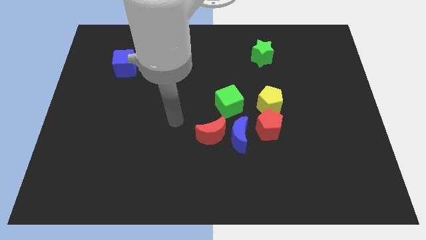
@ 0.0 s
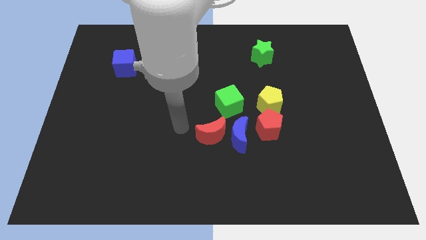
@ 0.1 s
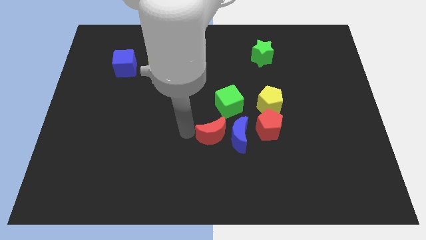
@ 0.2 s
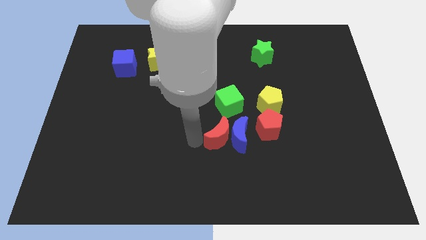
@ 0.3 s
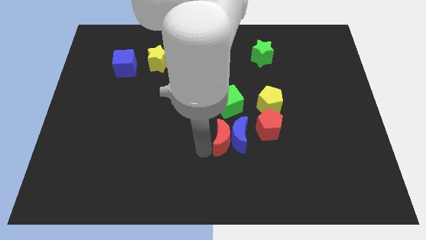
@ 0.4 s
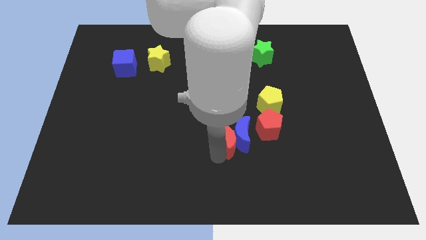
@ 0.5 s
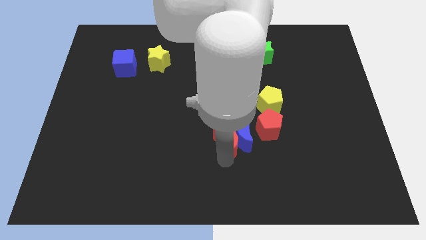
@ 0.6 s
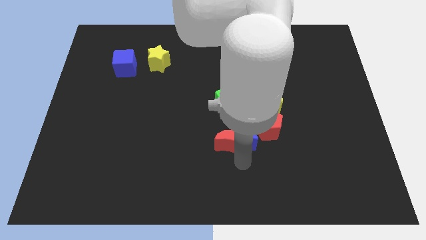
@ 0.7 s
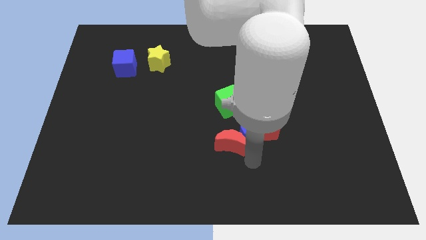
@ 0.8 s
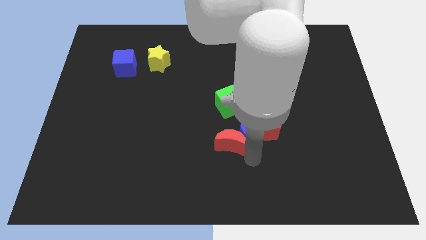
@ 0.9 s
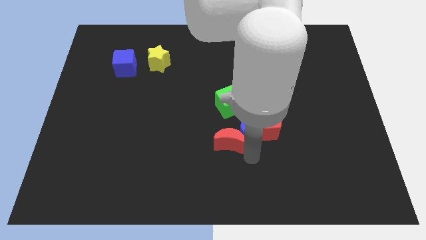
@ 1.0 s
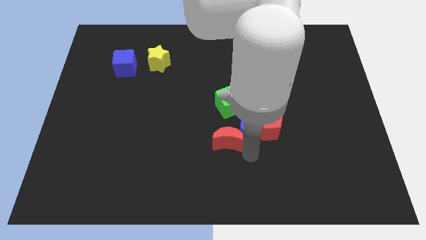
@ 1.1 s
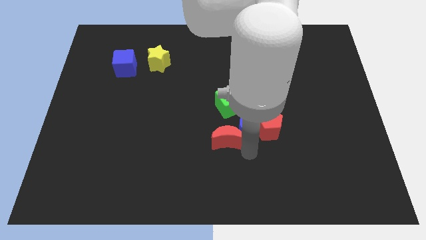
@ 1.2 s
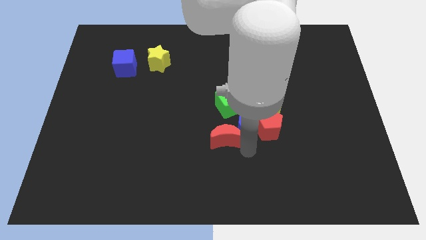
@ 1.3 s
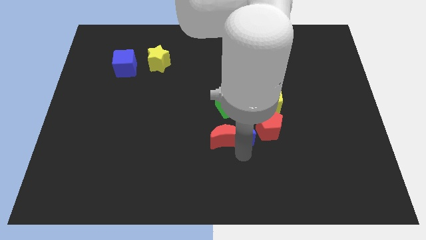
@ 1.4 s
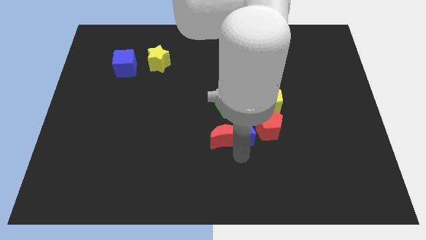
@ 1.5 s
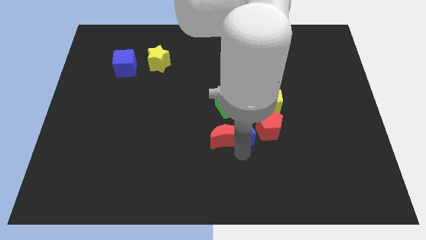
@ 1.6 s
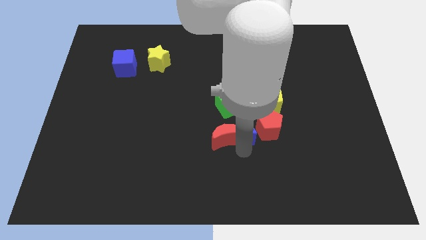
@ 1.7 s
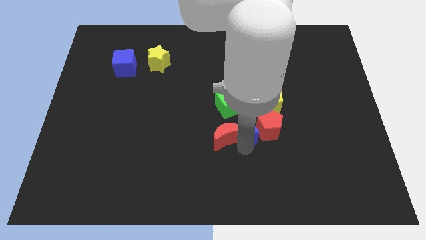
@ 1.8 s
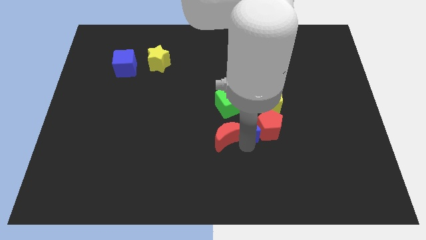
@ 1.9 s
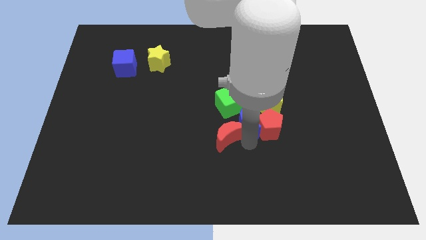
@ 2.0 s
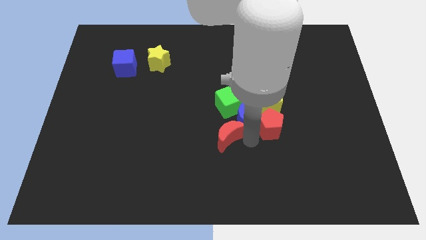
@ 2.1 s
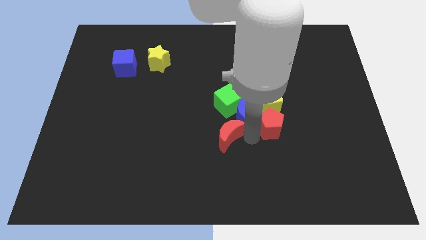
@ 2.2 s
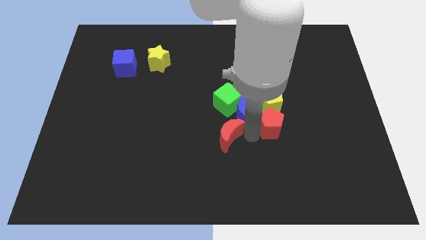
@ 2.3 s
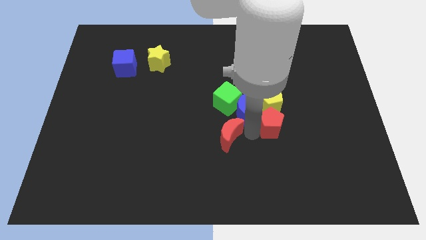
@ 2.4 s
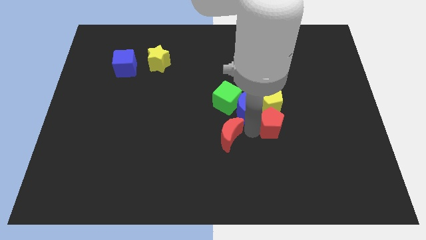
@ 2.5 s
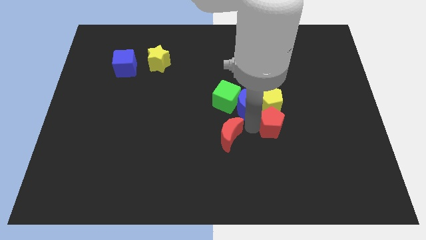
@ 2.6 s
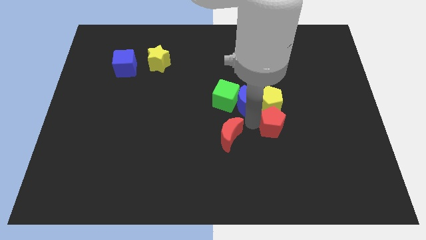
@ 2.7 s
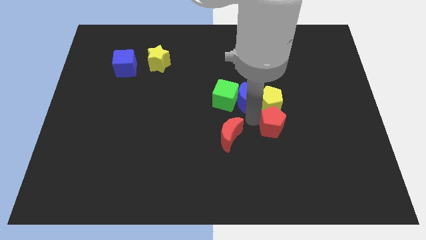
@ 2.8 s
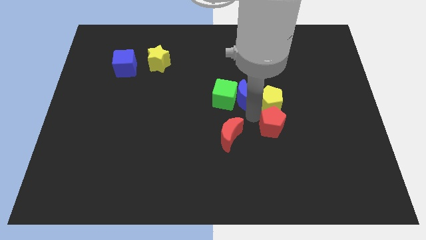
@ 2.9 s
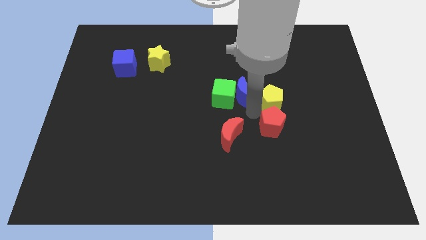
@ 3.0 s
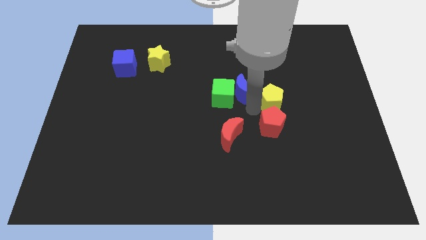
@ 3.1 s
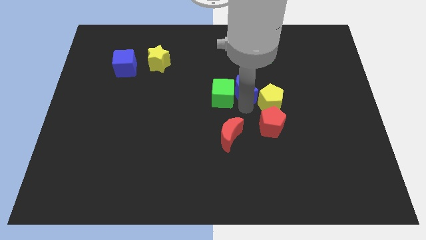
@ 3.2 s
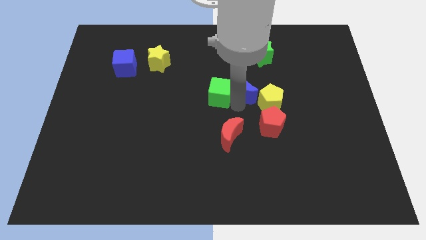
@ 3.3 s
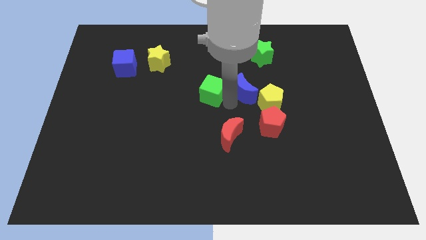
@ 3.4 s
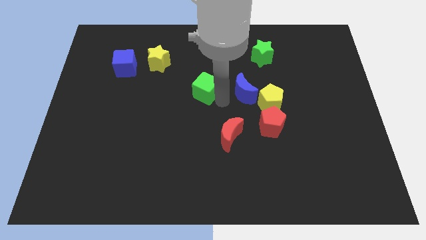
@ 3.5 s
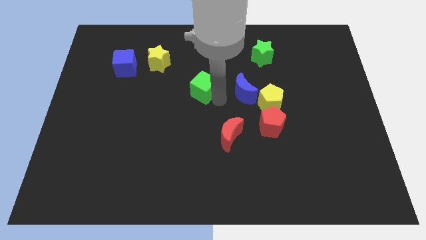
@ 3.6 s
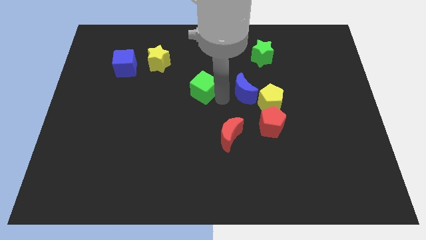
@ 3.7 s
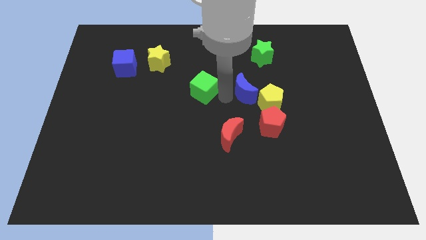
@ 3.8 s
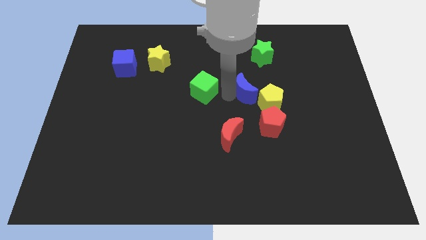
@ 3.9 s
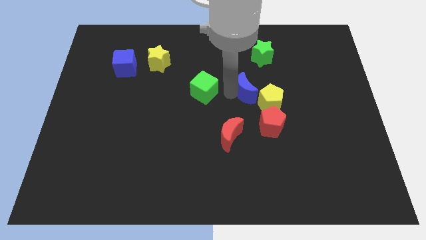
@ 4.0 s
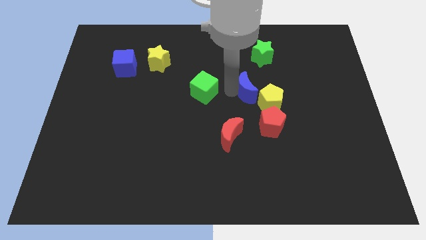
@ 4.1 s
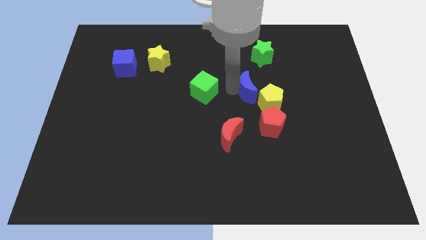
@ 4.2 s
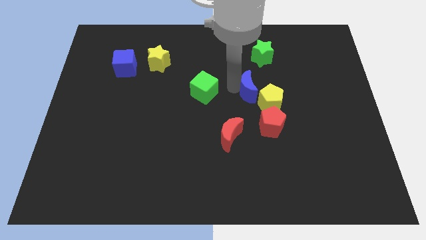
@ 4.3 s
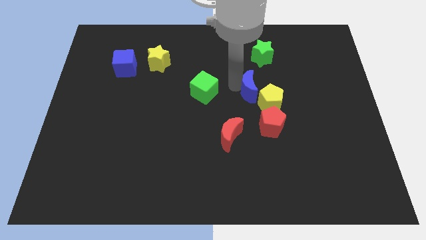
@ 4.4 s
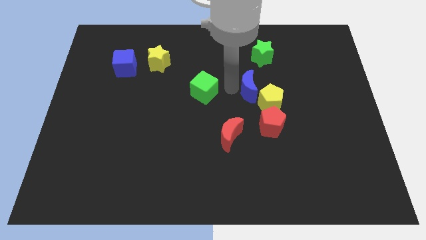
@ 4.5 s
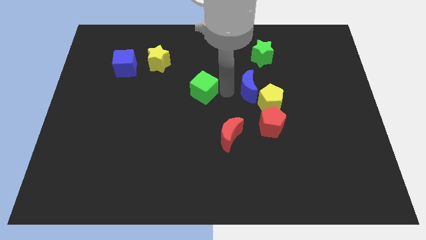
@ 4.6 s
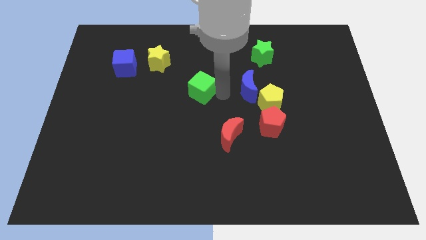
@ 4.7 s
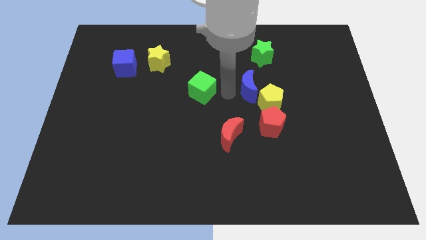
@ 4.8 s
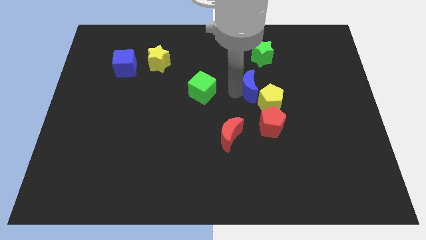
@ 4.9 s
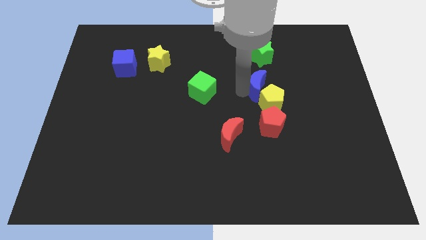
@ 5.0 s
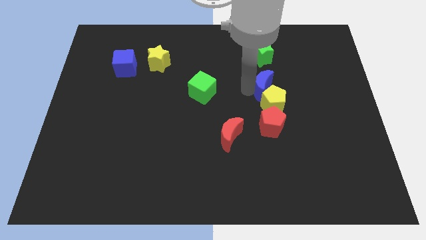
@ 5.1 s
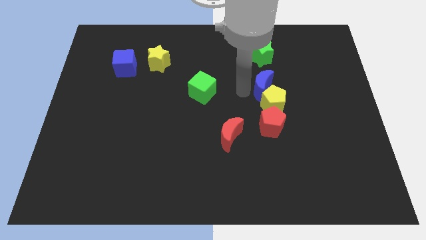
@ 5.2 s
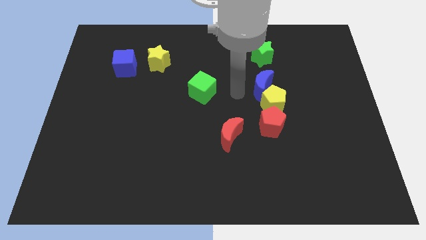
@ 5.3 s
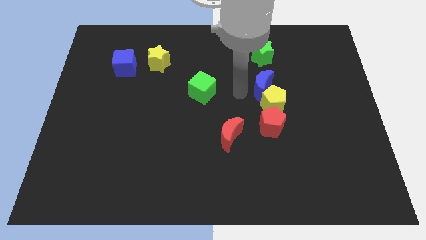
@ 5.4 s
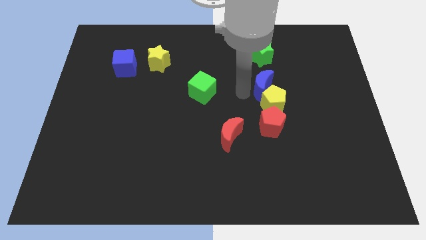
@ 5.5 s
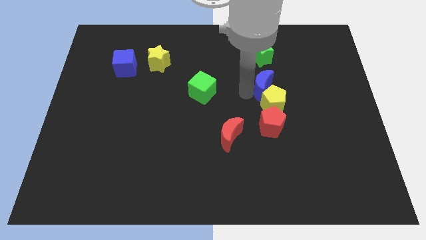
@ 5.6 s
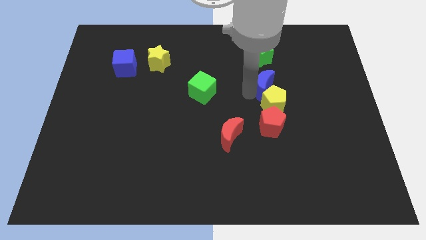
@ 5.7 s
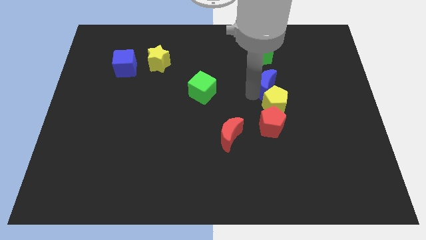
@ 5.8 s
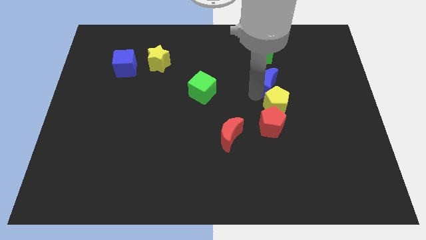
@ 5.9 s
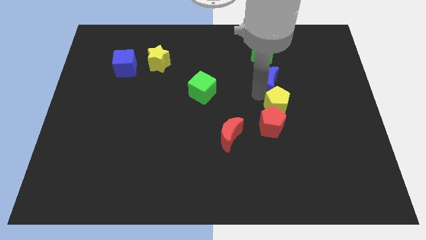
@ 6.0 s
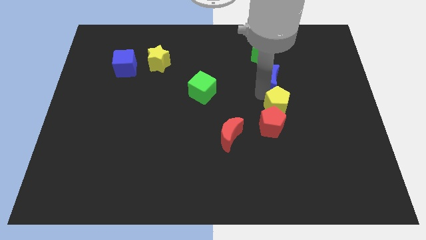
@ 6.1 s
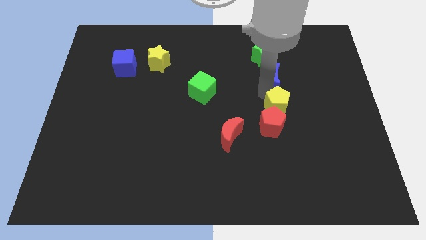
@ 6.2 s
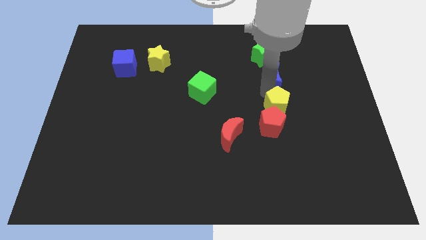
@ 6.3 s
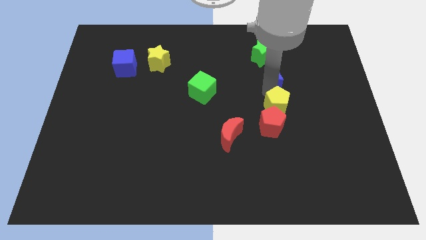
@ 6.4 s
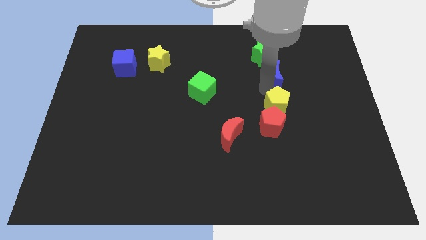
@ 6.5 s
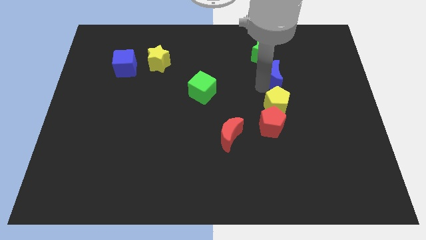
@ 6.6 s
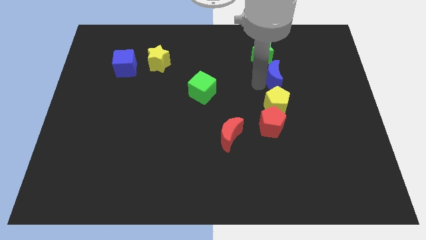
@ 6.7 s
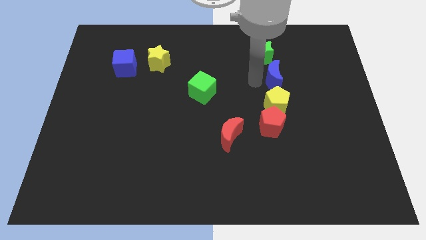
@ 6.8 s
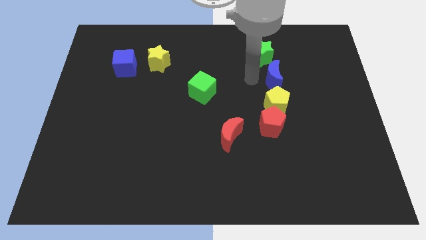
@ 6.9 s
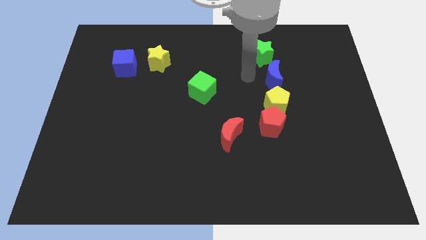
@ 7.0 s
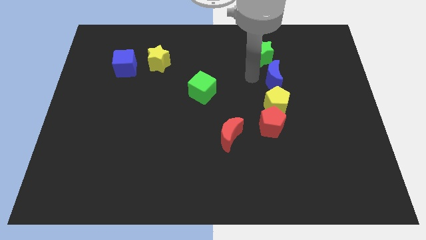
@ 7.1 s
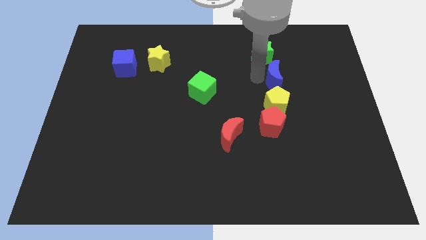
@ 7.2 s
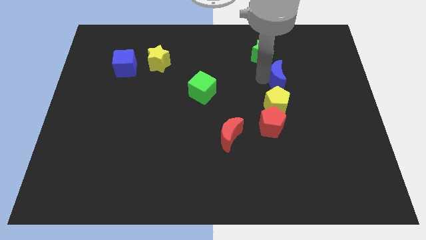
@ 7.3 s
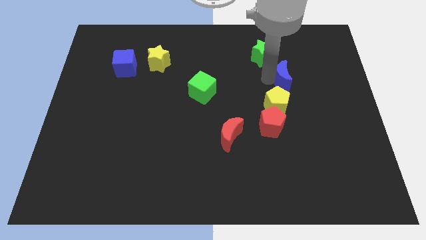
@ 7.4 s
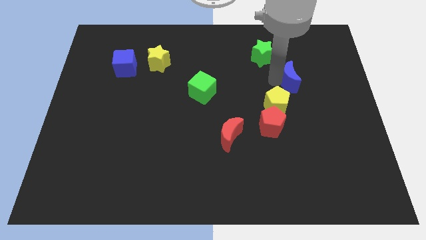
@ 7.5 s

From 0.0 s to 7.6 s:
slide the blue moon upwards and right

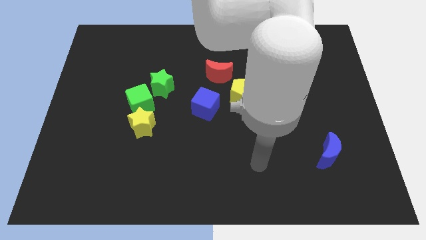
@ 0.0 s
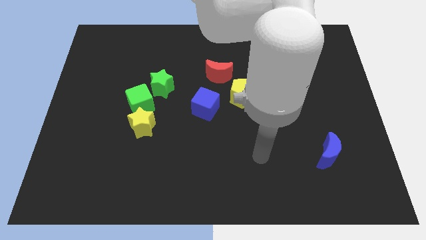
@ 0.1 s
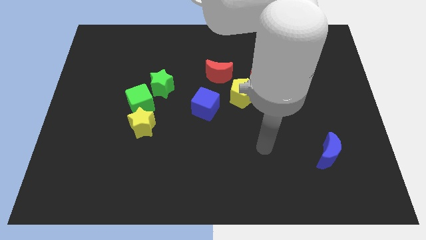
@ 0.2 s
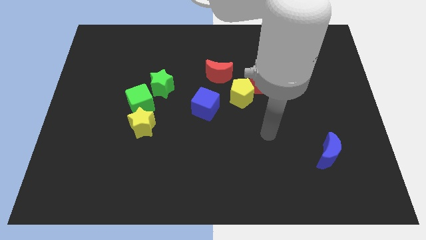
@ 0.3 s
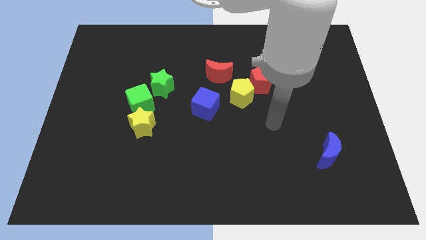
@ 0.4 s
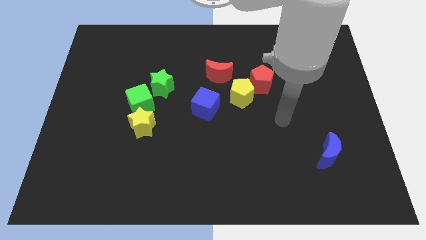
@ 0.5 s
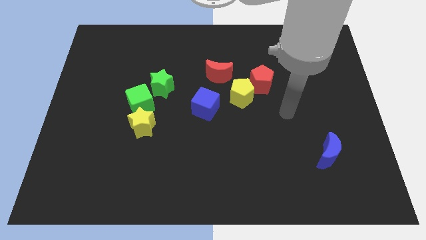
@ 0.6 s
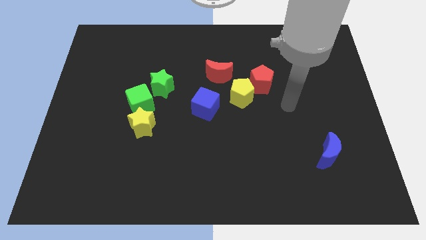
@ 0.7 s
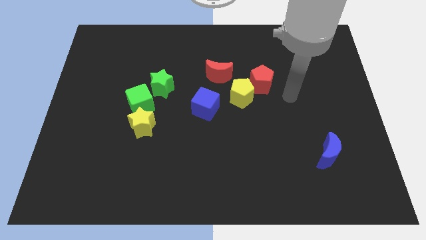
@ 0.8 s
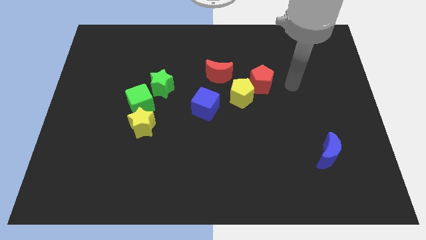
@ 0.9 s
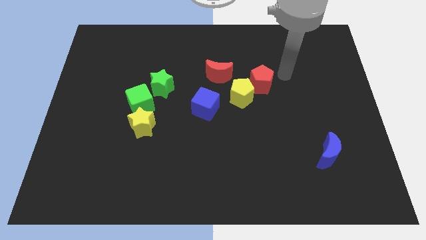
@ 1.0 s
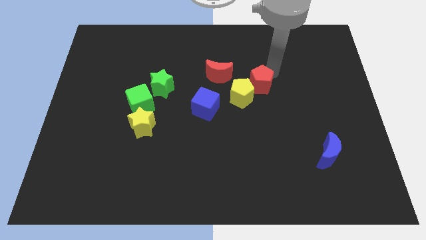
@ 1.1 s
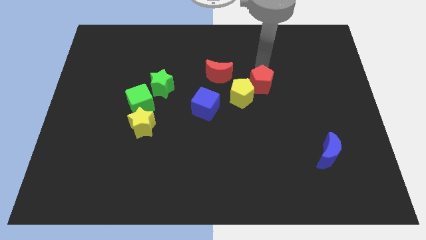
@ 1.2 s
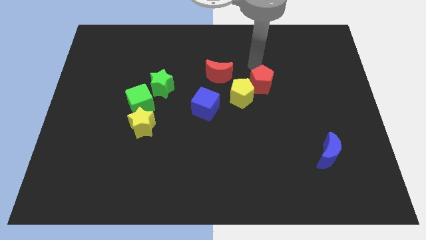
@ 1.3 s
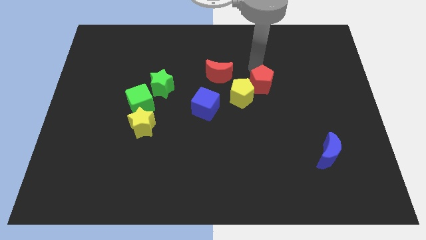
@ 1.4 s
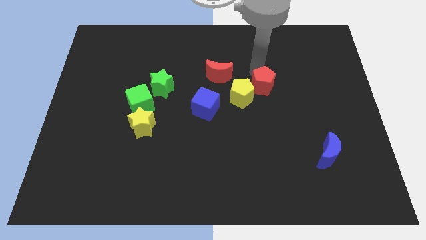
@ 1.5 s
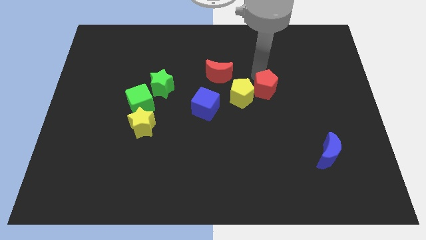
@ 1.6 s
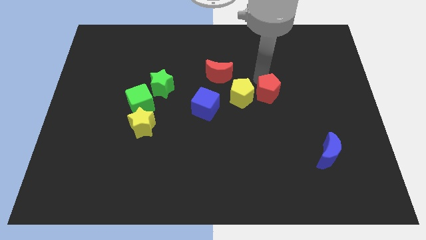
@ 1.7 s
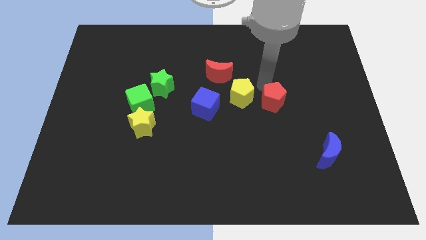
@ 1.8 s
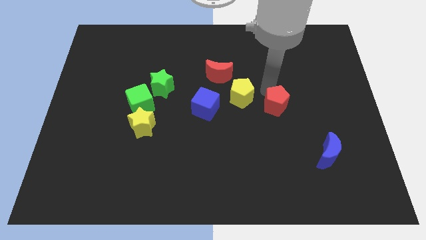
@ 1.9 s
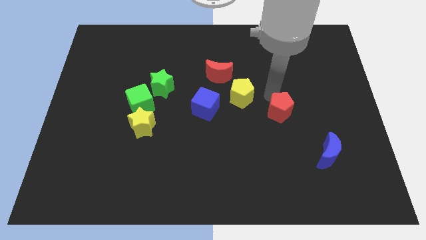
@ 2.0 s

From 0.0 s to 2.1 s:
slide the red pentagon somewhat down
